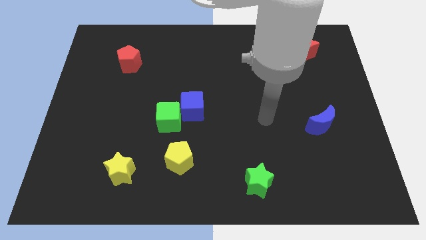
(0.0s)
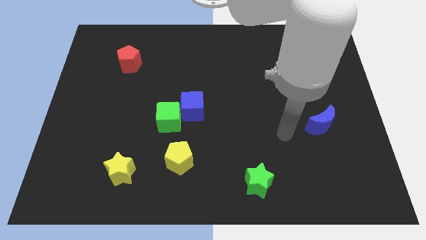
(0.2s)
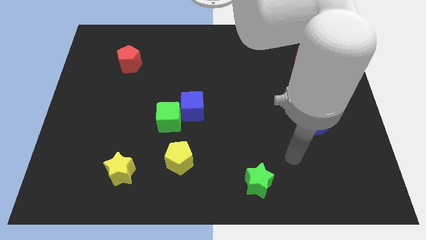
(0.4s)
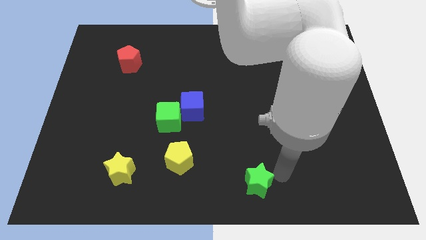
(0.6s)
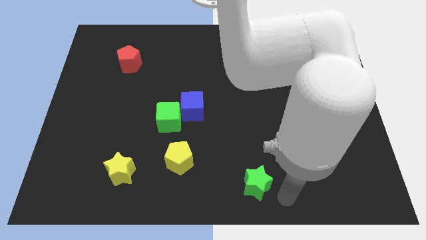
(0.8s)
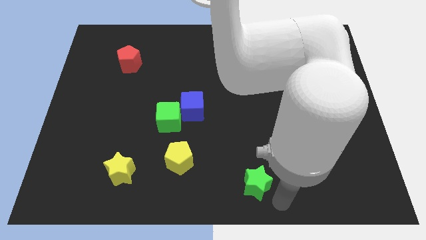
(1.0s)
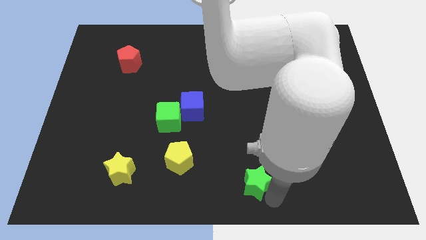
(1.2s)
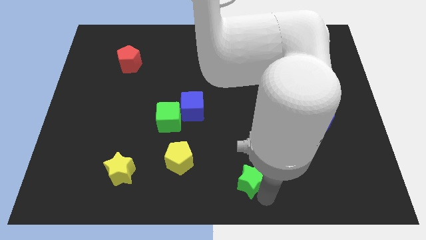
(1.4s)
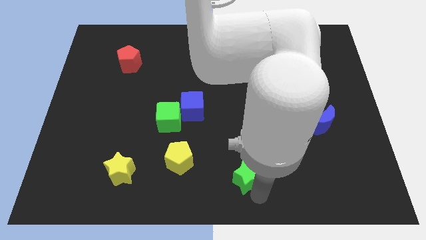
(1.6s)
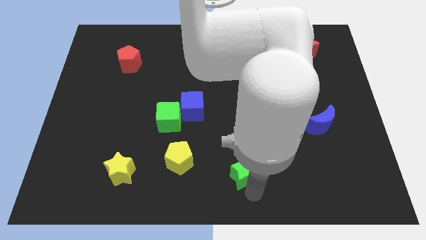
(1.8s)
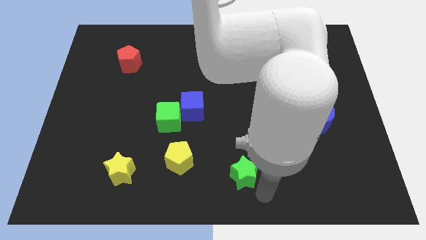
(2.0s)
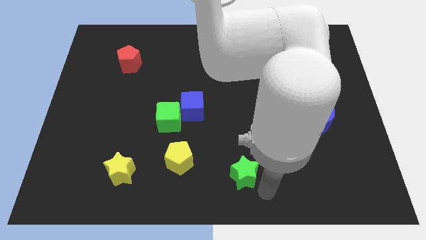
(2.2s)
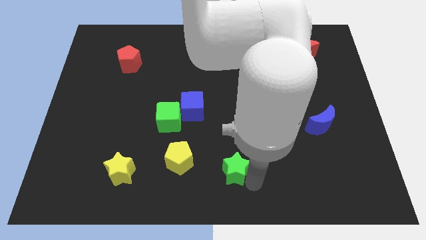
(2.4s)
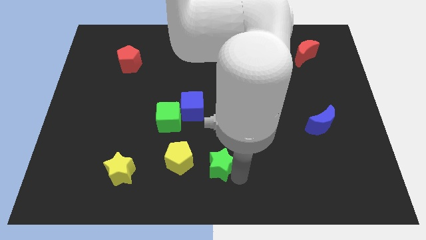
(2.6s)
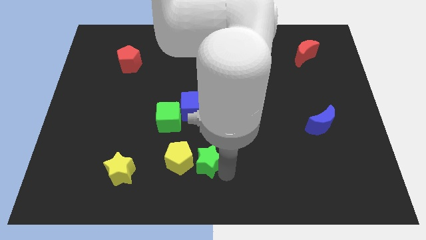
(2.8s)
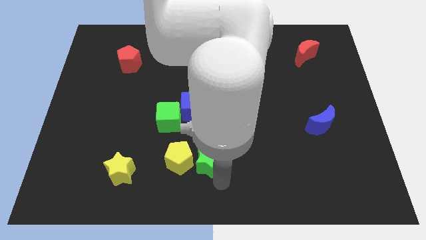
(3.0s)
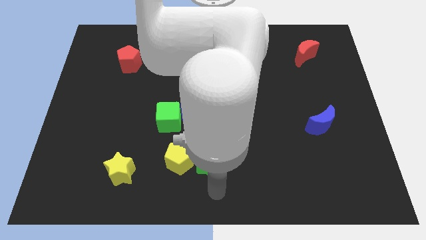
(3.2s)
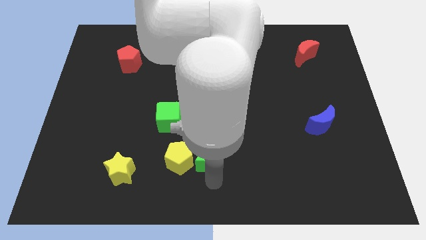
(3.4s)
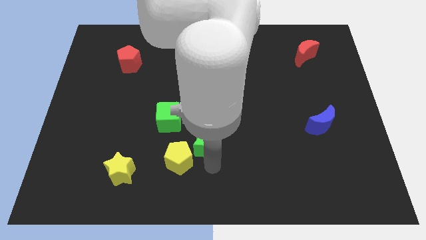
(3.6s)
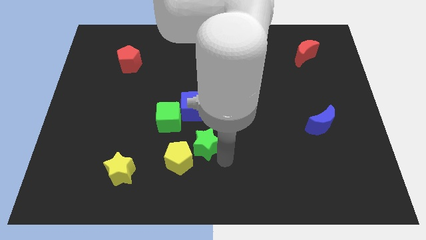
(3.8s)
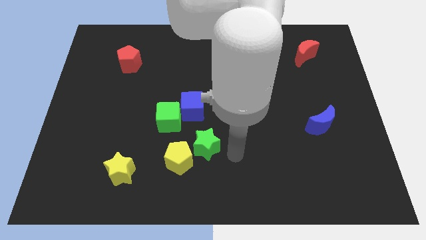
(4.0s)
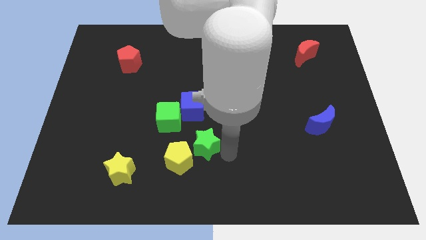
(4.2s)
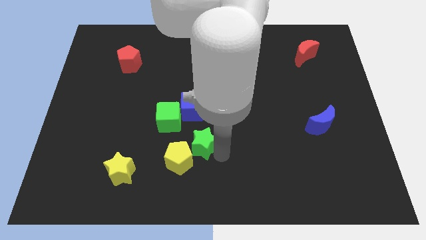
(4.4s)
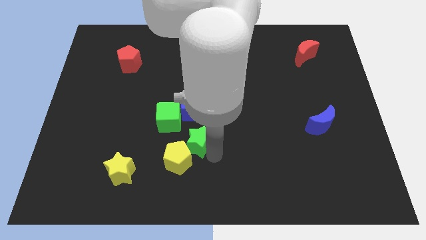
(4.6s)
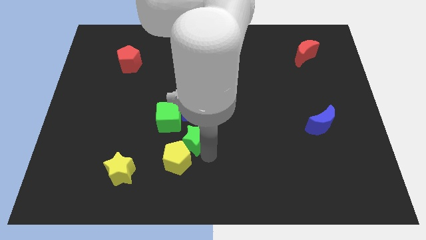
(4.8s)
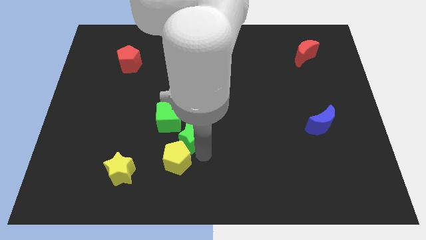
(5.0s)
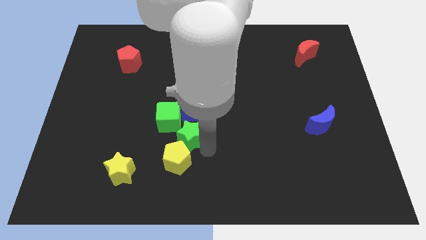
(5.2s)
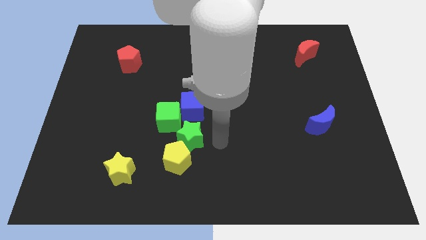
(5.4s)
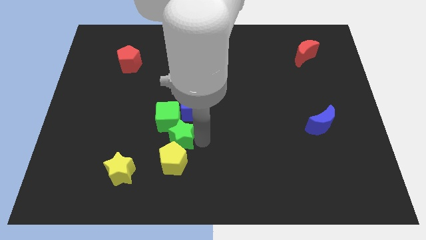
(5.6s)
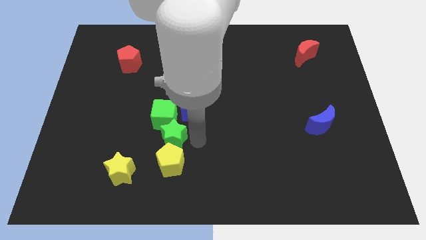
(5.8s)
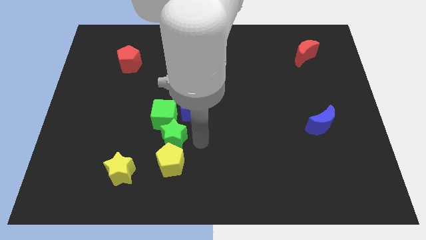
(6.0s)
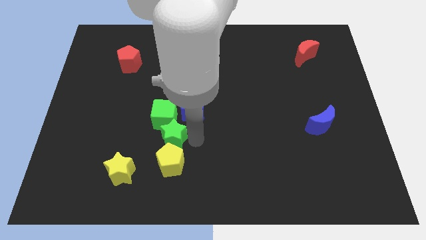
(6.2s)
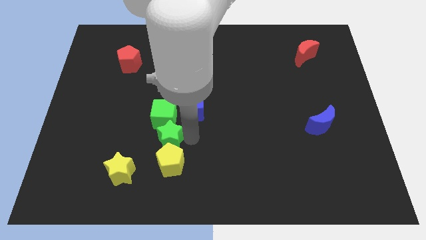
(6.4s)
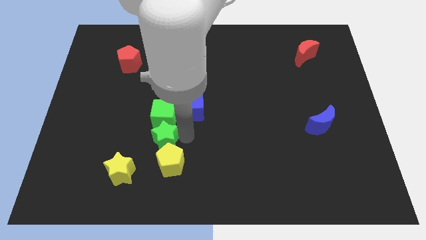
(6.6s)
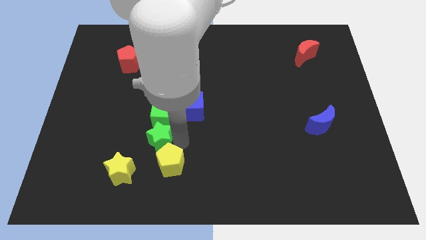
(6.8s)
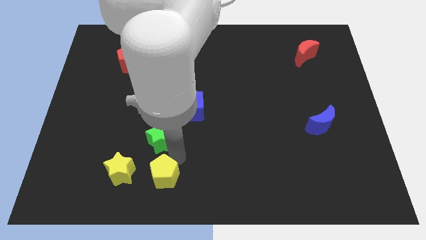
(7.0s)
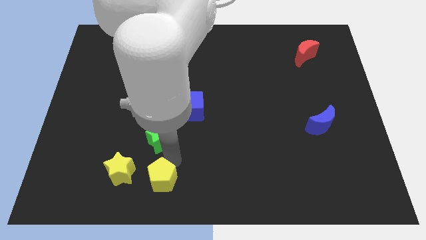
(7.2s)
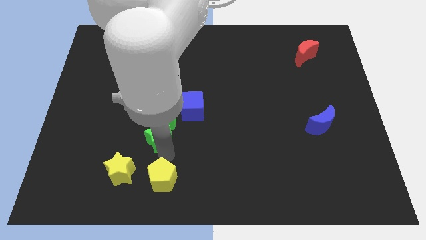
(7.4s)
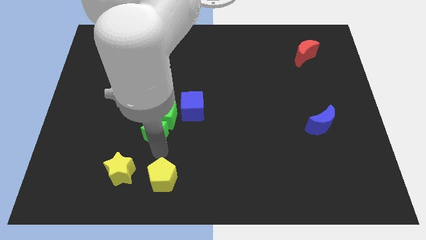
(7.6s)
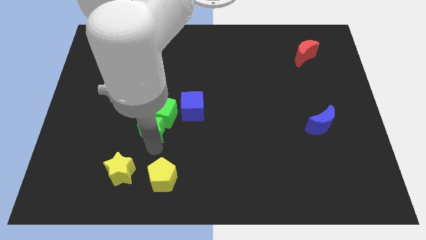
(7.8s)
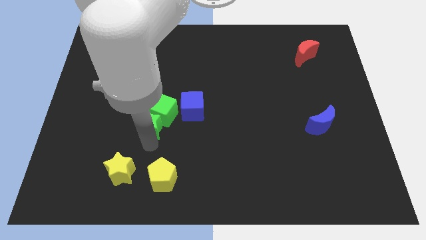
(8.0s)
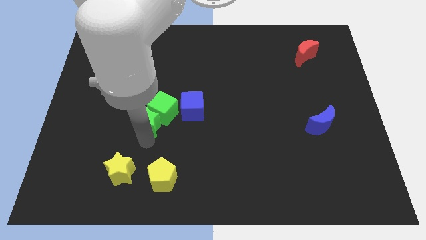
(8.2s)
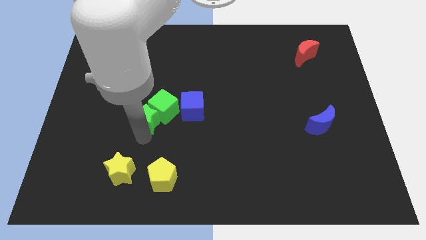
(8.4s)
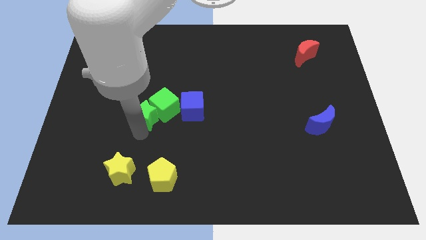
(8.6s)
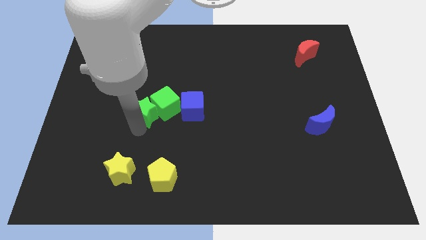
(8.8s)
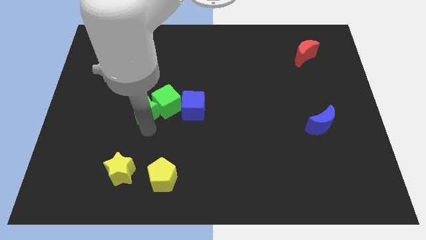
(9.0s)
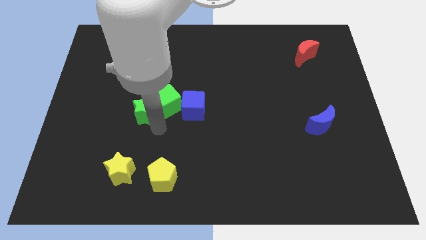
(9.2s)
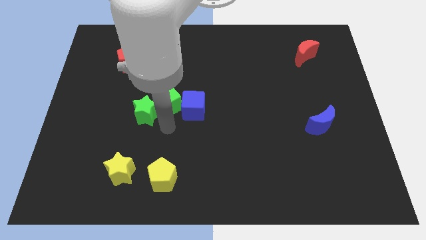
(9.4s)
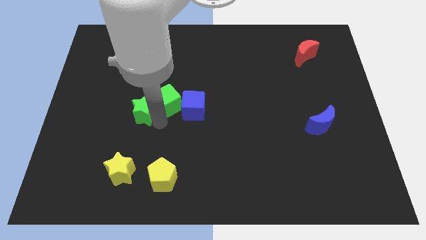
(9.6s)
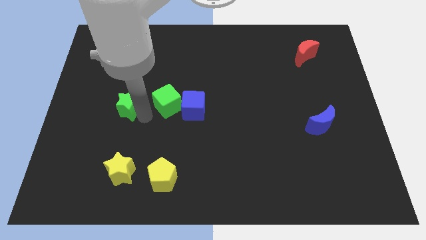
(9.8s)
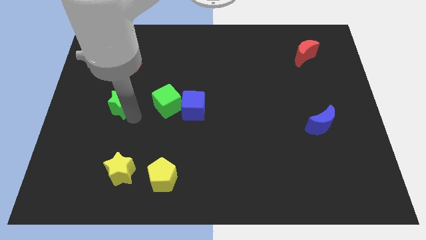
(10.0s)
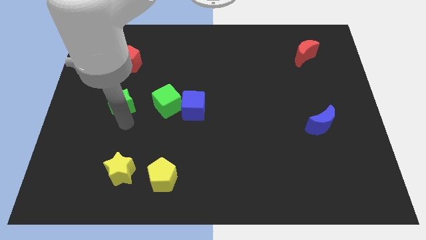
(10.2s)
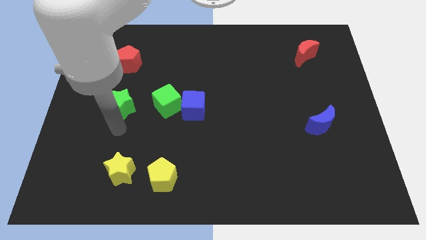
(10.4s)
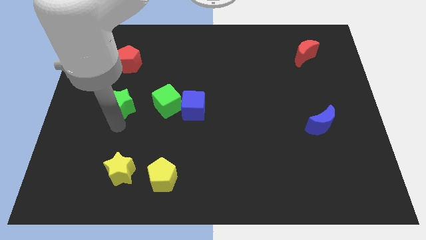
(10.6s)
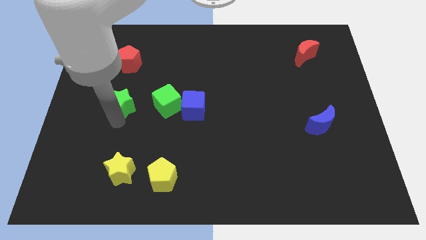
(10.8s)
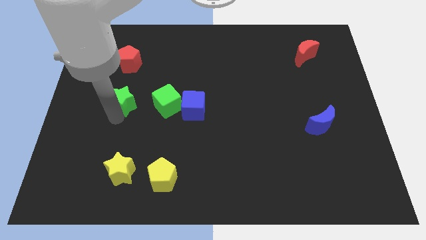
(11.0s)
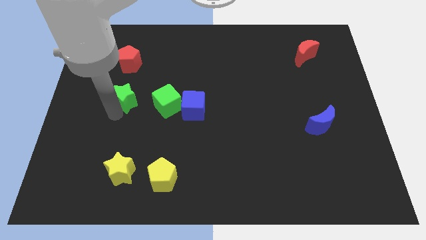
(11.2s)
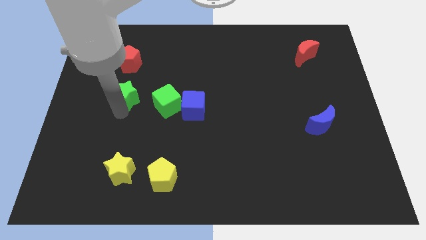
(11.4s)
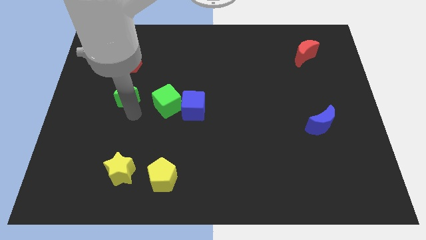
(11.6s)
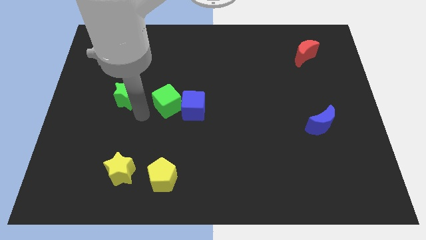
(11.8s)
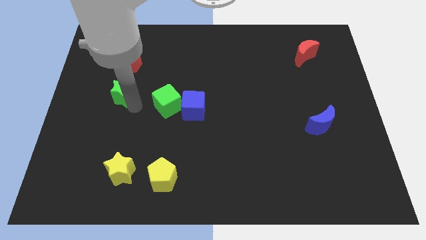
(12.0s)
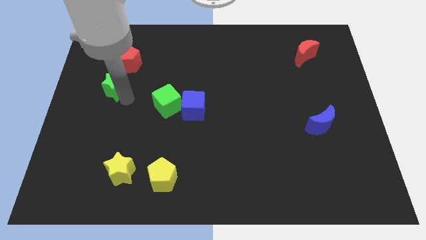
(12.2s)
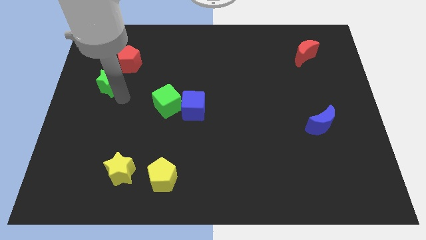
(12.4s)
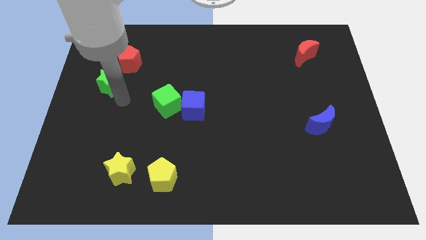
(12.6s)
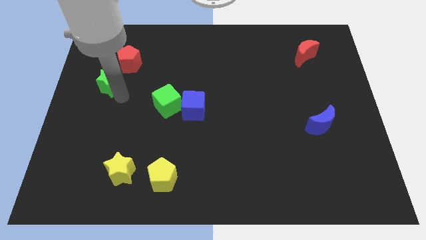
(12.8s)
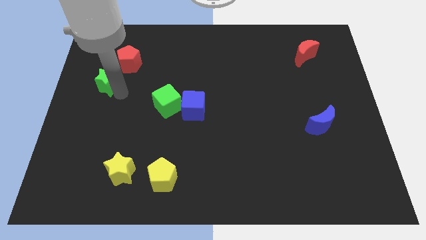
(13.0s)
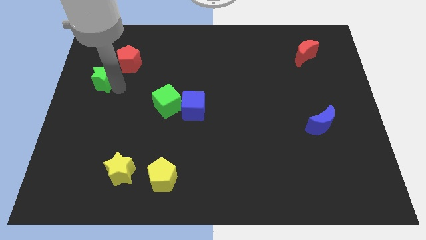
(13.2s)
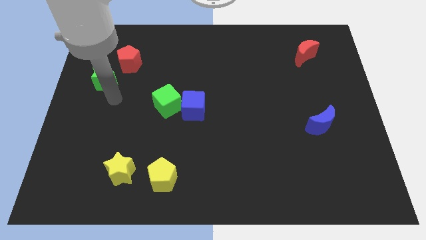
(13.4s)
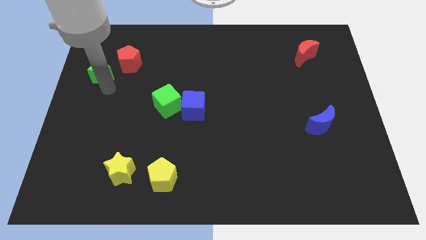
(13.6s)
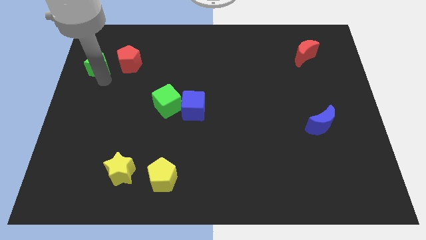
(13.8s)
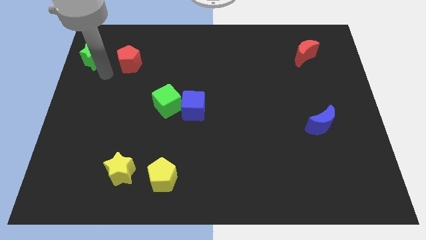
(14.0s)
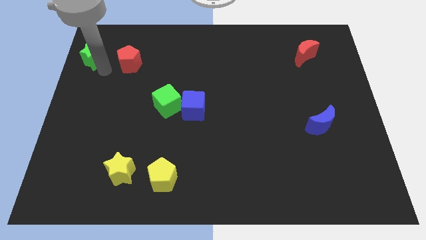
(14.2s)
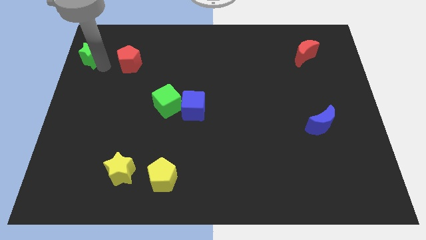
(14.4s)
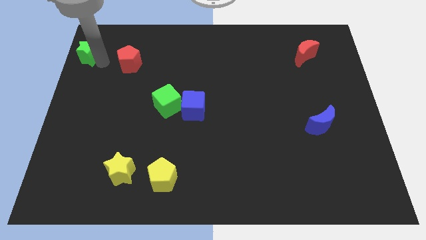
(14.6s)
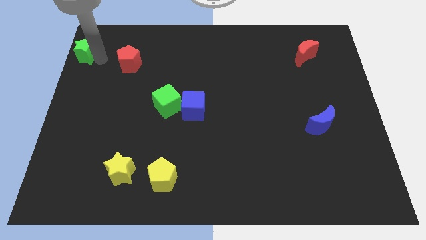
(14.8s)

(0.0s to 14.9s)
push the green star to the top left
